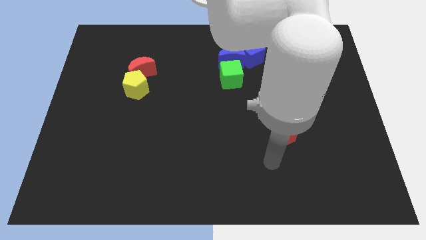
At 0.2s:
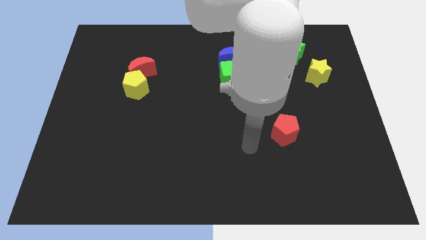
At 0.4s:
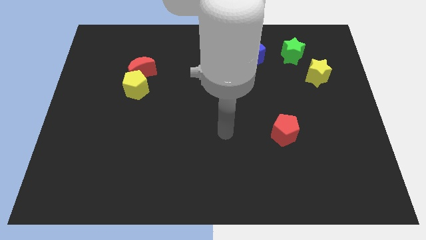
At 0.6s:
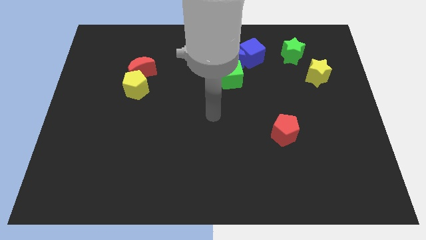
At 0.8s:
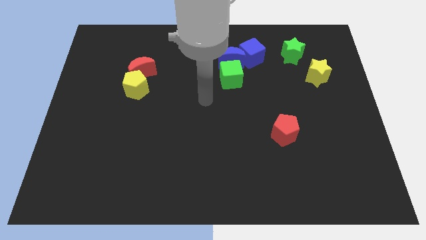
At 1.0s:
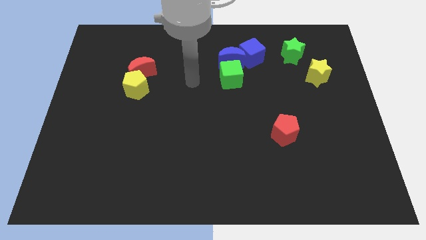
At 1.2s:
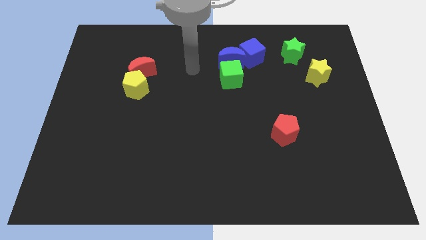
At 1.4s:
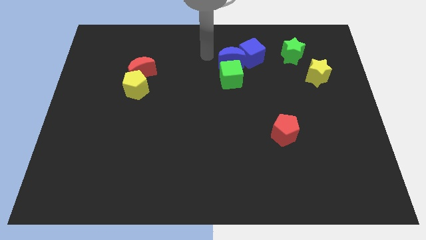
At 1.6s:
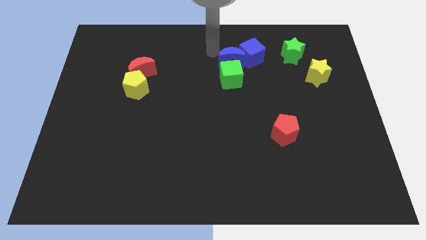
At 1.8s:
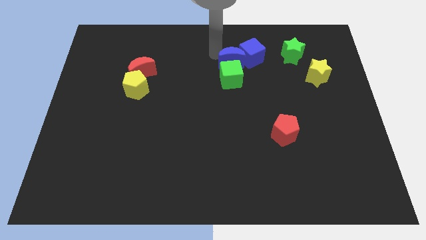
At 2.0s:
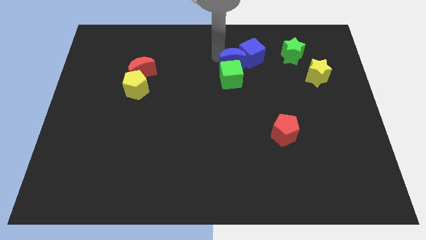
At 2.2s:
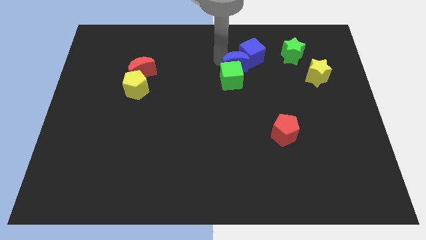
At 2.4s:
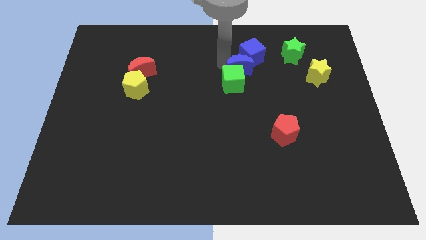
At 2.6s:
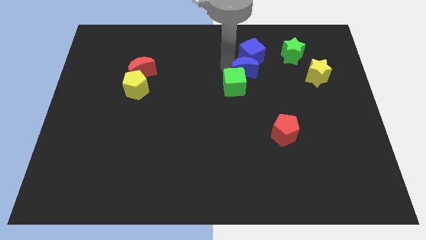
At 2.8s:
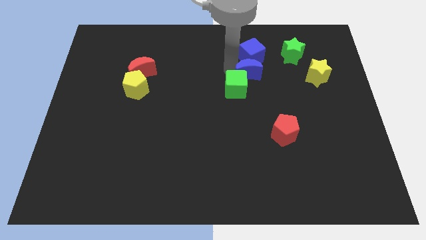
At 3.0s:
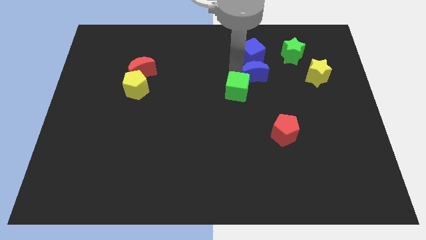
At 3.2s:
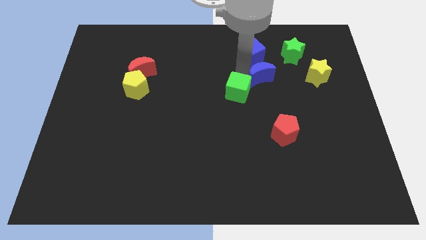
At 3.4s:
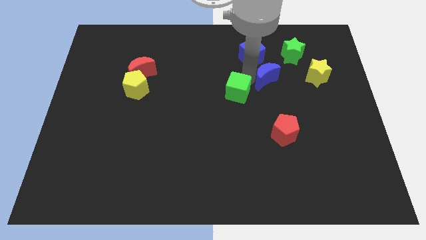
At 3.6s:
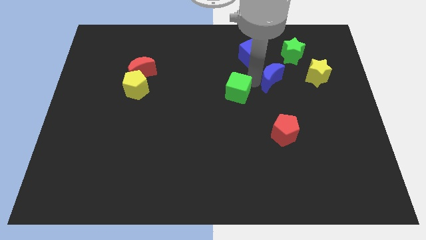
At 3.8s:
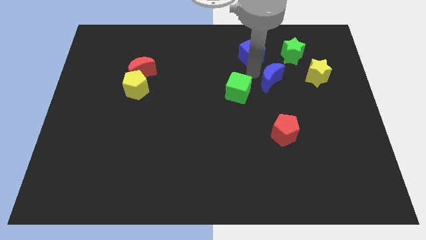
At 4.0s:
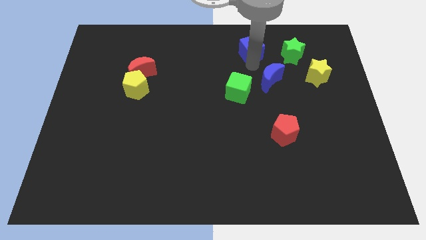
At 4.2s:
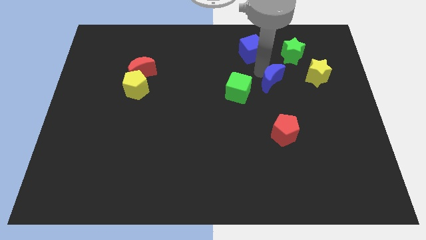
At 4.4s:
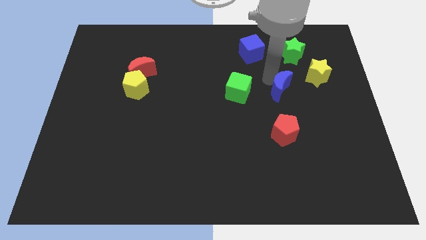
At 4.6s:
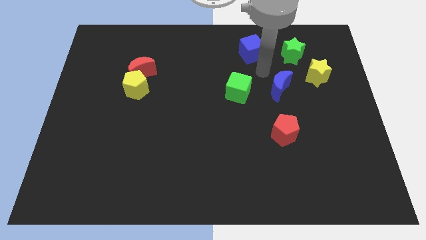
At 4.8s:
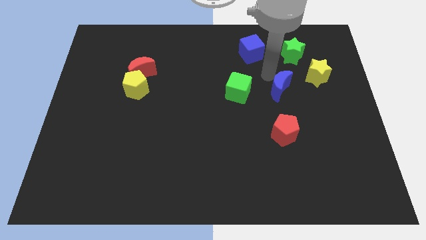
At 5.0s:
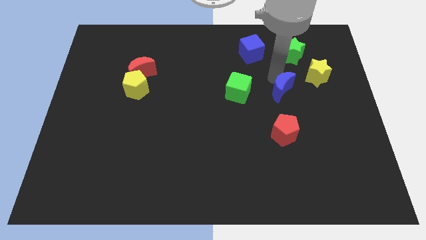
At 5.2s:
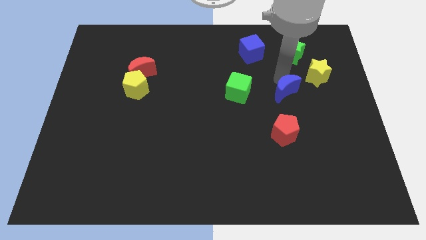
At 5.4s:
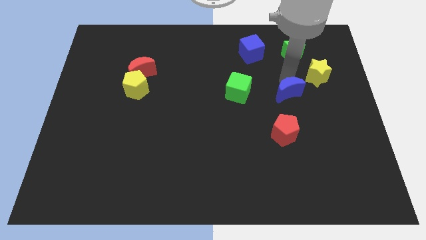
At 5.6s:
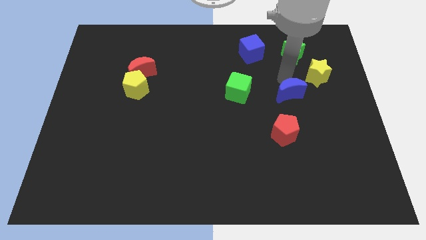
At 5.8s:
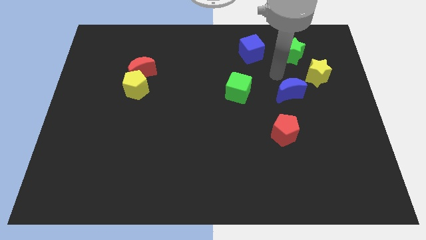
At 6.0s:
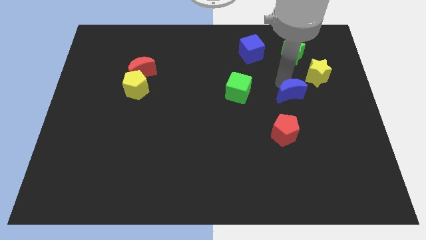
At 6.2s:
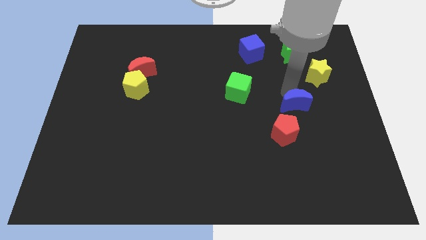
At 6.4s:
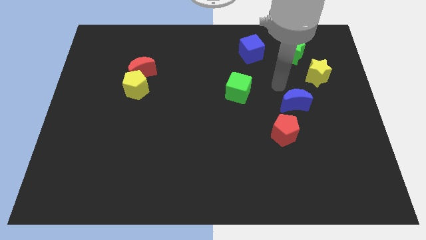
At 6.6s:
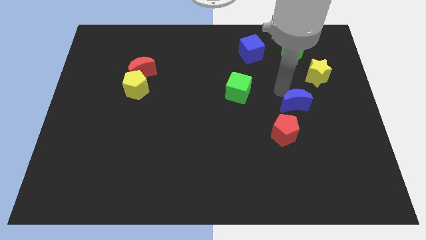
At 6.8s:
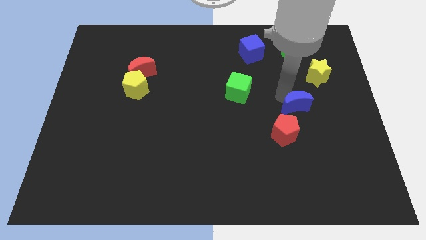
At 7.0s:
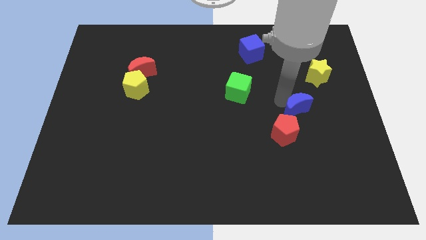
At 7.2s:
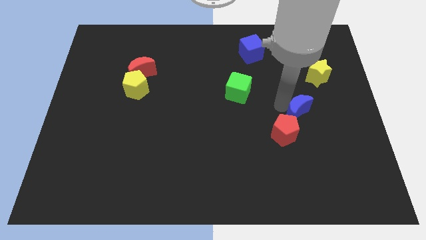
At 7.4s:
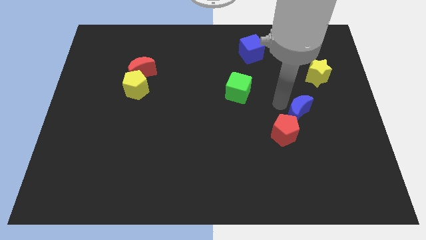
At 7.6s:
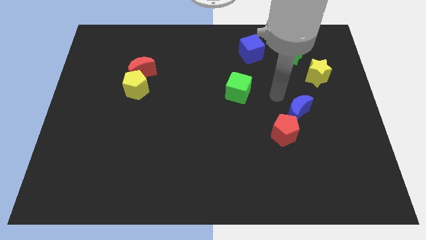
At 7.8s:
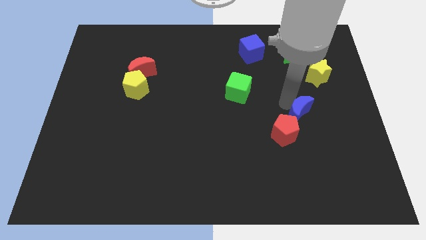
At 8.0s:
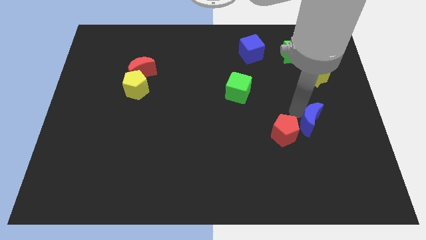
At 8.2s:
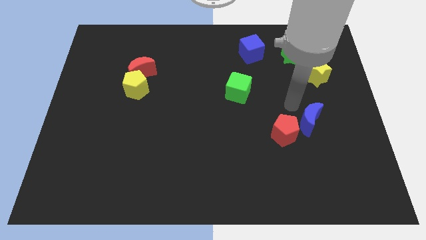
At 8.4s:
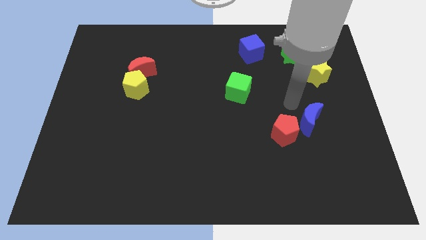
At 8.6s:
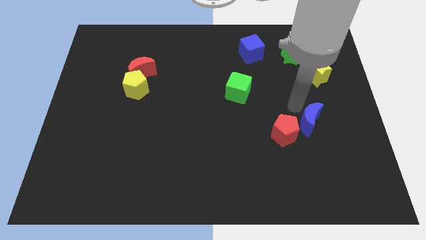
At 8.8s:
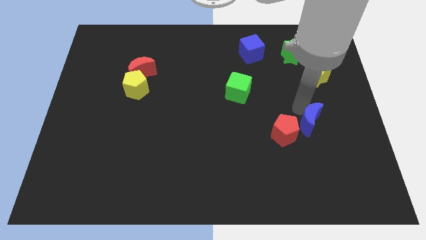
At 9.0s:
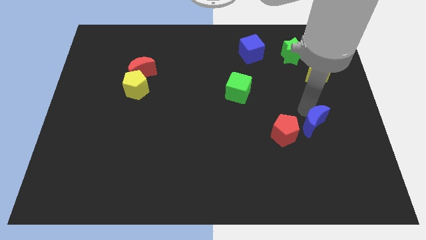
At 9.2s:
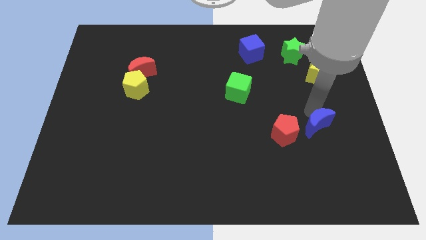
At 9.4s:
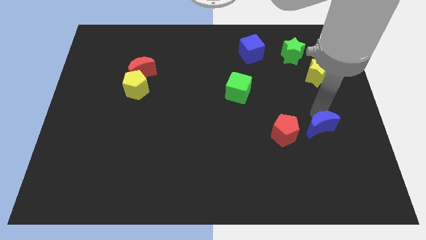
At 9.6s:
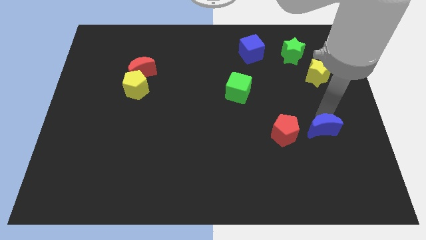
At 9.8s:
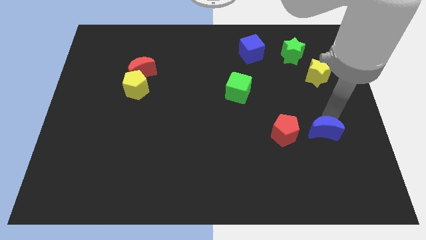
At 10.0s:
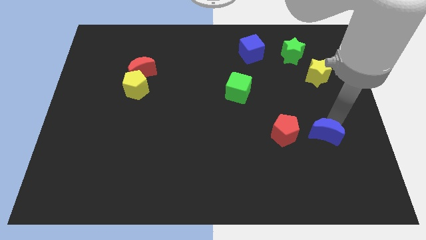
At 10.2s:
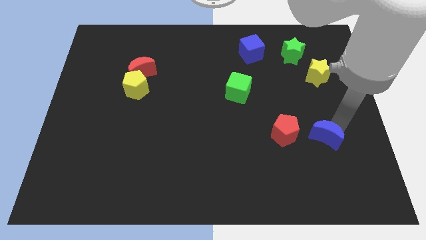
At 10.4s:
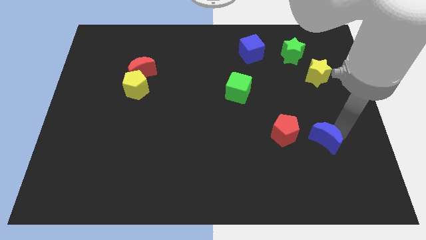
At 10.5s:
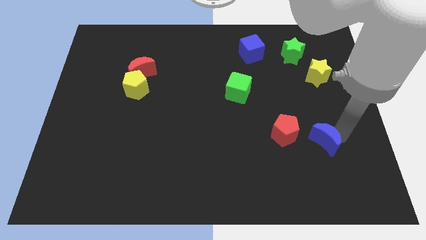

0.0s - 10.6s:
push the blue moon to the bottom right of the red pentagon

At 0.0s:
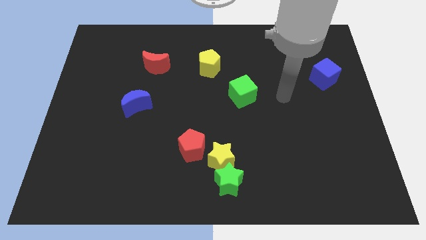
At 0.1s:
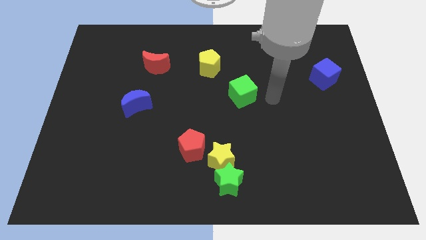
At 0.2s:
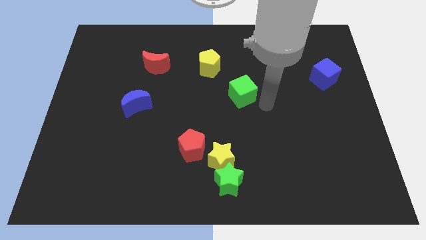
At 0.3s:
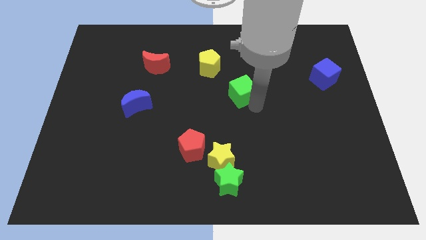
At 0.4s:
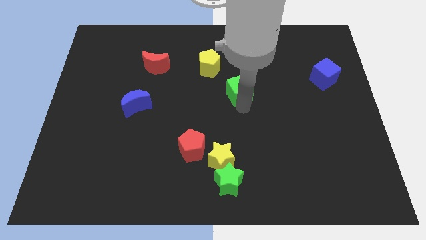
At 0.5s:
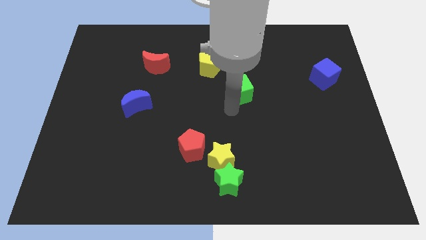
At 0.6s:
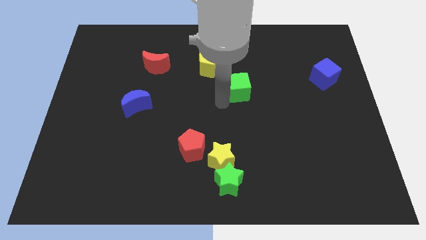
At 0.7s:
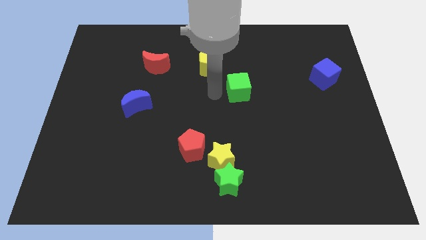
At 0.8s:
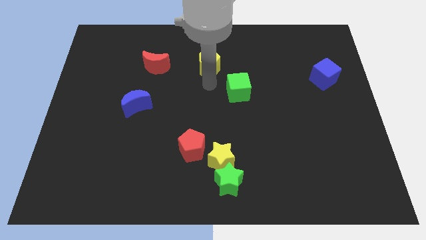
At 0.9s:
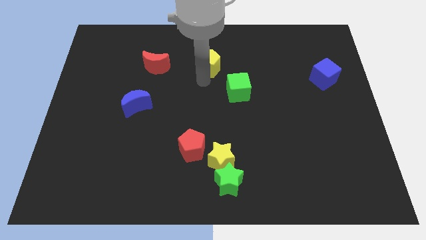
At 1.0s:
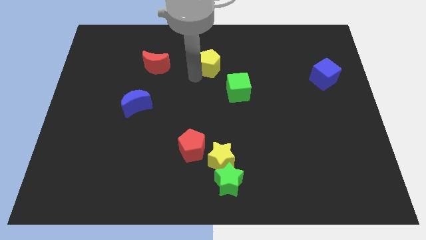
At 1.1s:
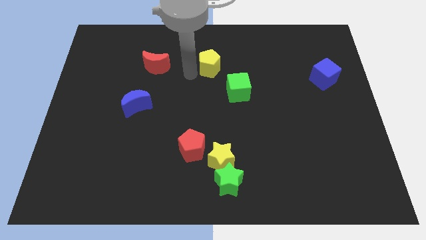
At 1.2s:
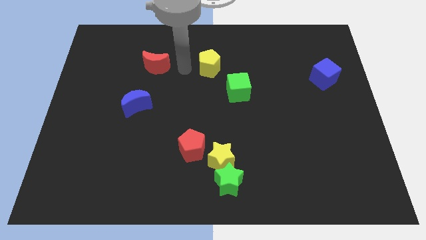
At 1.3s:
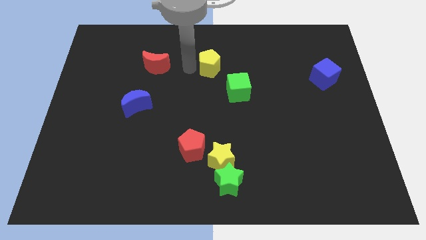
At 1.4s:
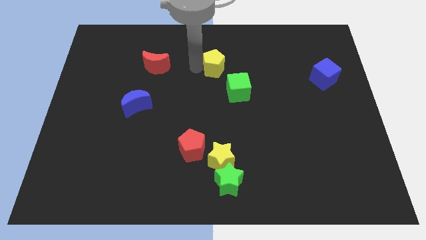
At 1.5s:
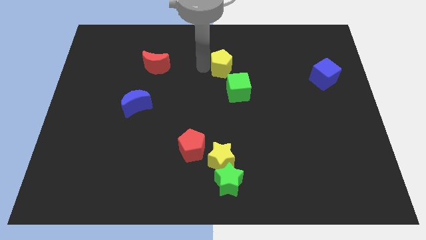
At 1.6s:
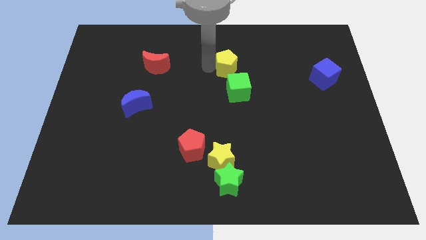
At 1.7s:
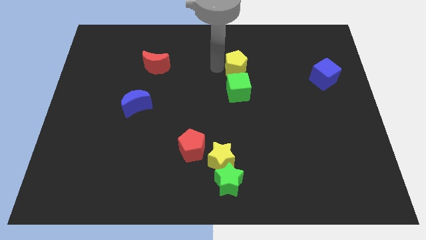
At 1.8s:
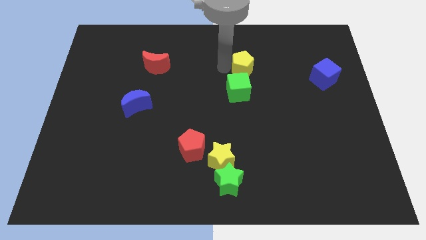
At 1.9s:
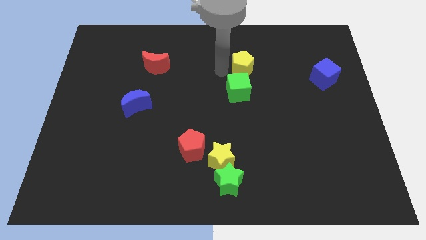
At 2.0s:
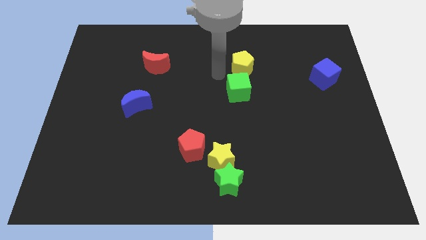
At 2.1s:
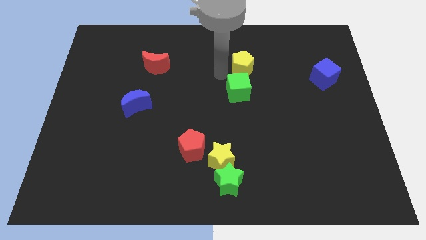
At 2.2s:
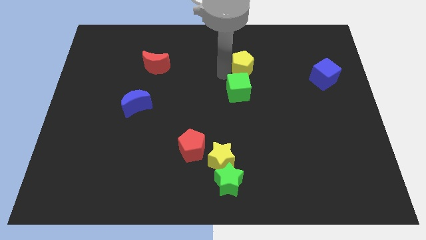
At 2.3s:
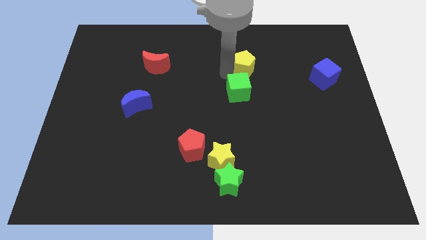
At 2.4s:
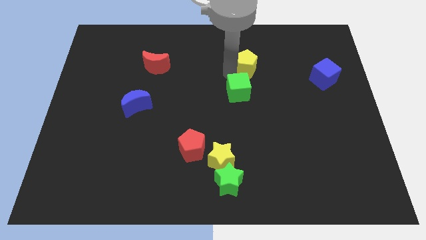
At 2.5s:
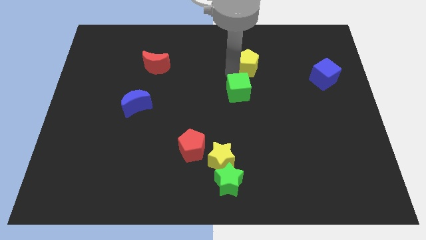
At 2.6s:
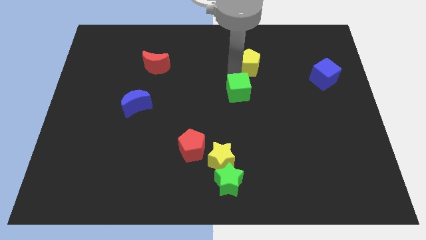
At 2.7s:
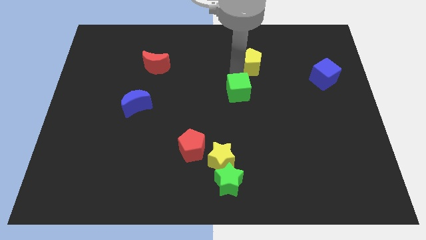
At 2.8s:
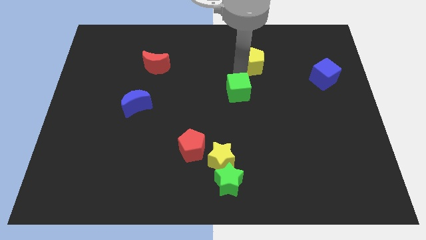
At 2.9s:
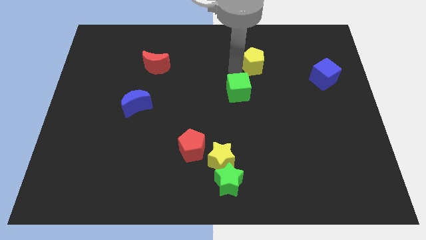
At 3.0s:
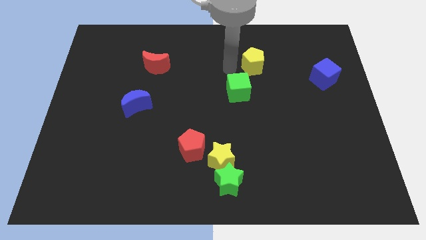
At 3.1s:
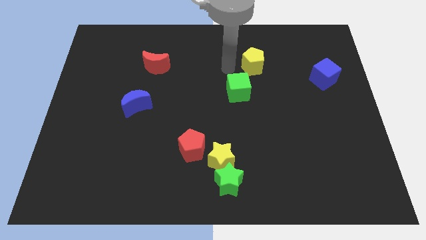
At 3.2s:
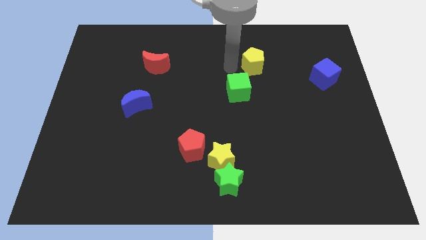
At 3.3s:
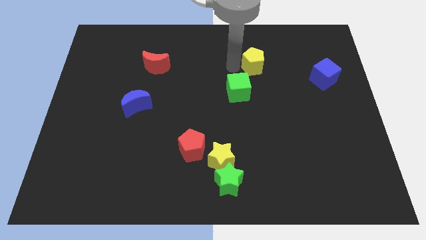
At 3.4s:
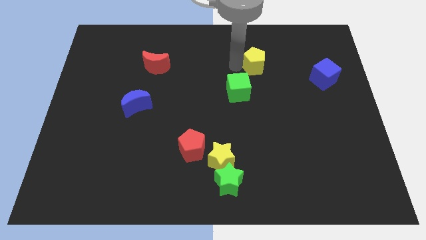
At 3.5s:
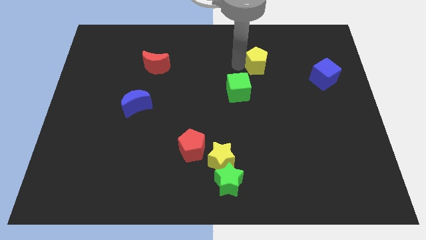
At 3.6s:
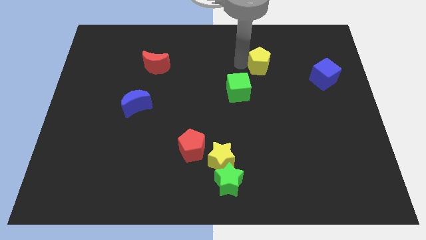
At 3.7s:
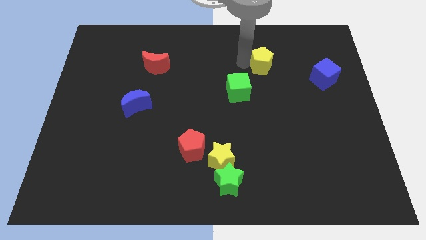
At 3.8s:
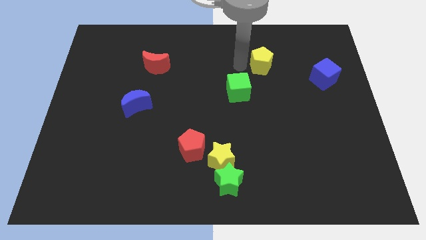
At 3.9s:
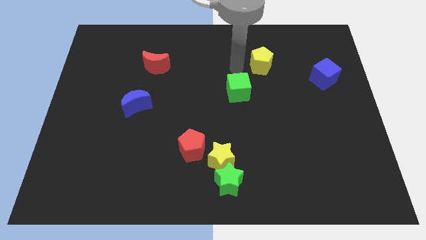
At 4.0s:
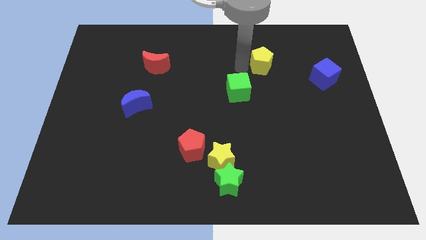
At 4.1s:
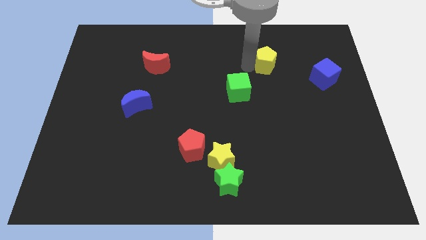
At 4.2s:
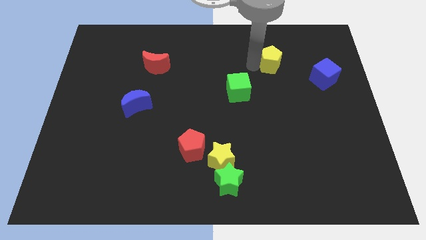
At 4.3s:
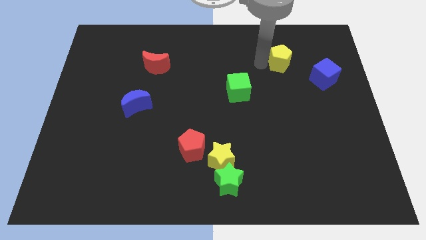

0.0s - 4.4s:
slide the yellow pentagon to the top left of the blue cube
